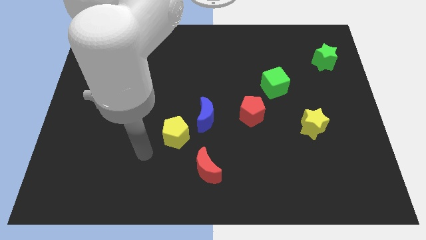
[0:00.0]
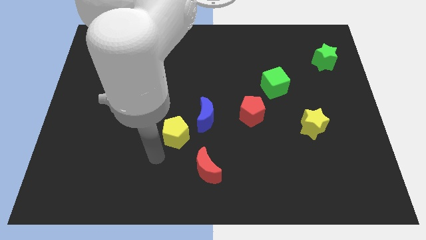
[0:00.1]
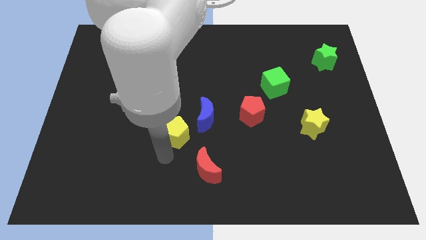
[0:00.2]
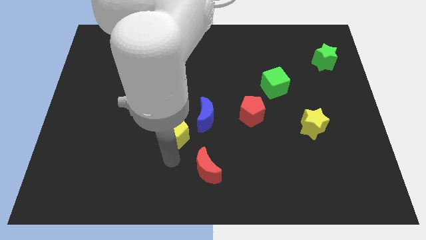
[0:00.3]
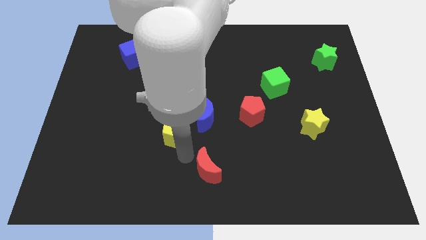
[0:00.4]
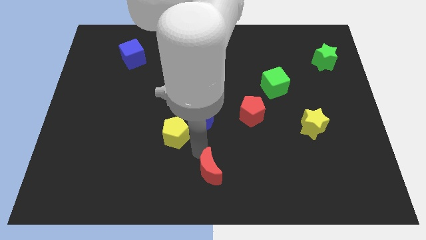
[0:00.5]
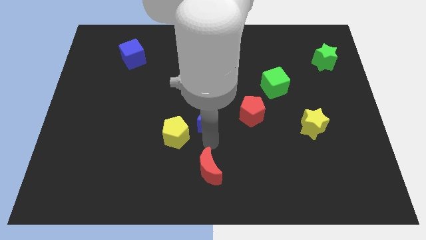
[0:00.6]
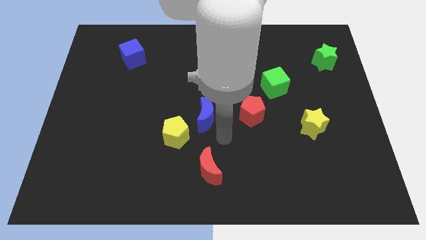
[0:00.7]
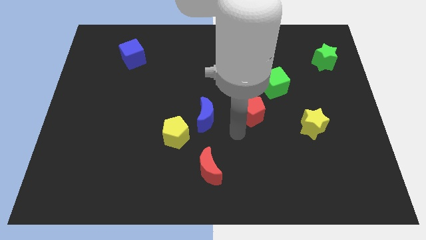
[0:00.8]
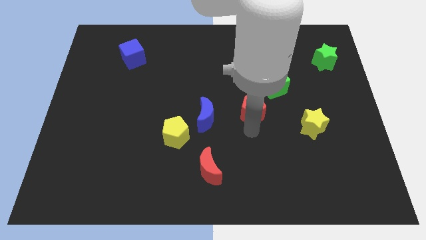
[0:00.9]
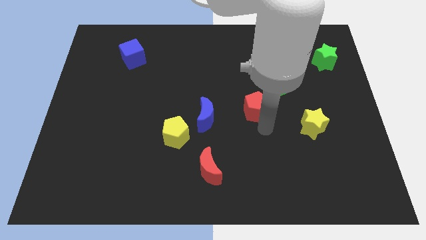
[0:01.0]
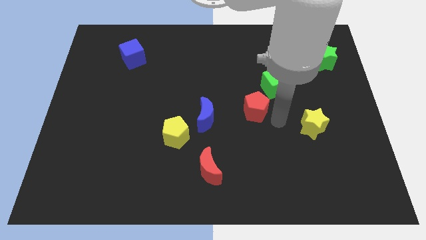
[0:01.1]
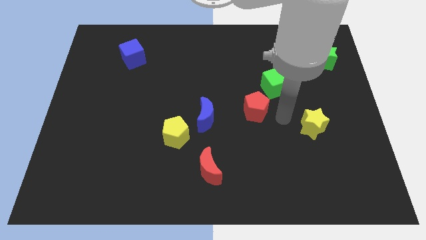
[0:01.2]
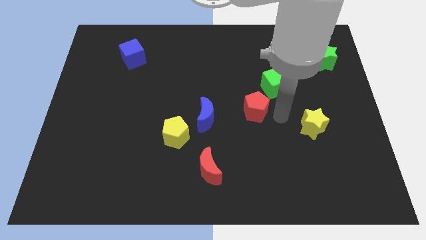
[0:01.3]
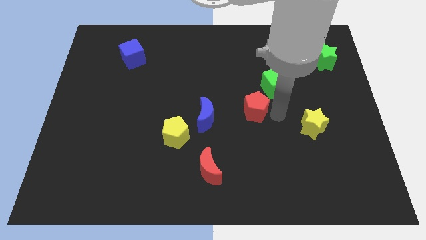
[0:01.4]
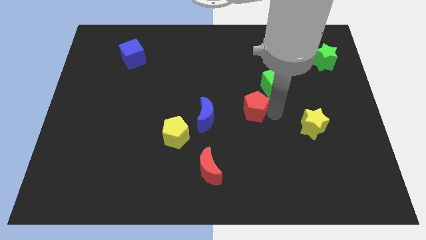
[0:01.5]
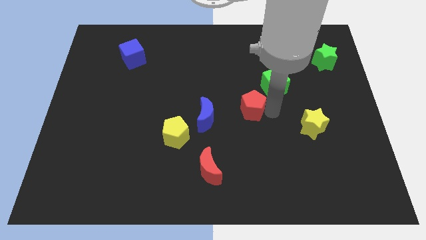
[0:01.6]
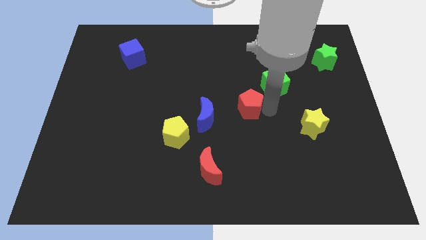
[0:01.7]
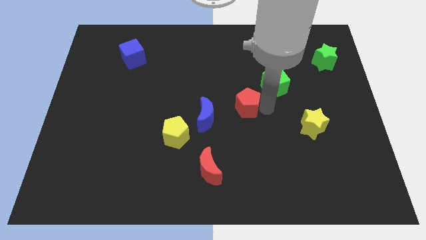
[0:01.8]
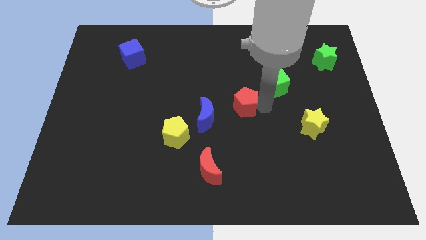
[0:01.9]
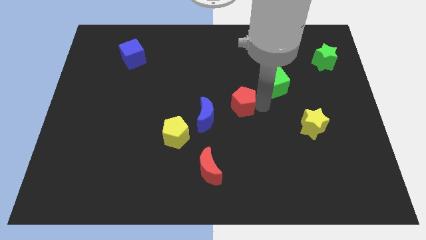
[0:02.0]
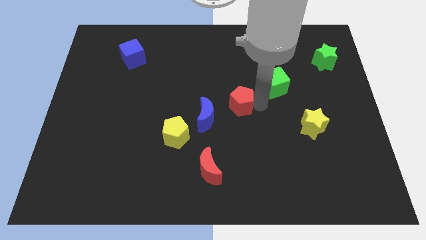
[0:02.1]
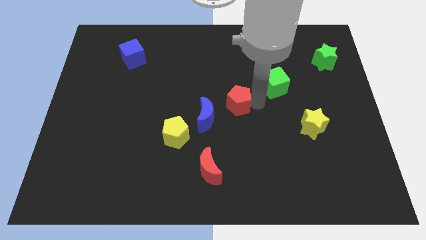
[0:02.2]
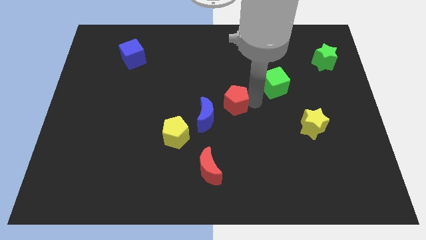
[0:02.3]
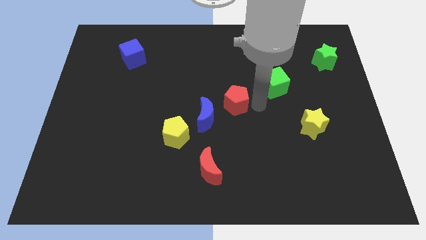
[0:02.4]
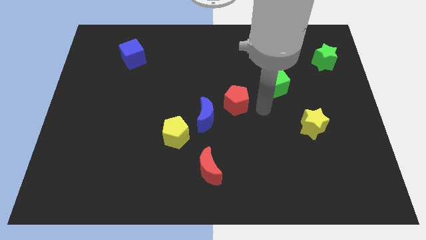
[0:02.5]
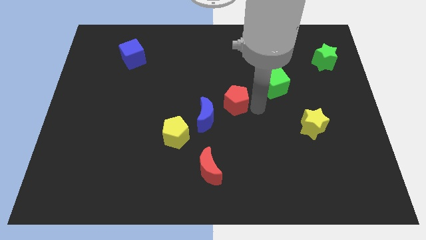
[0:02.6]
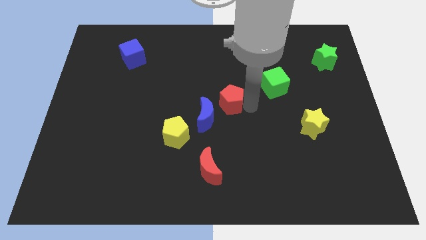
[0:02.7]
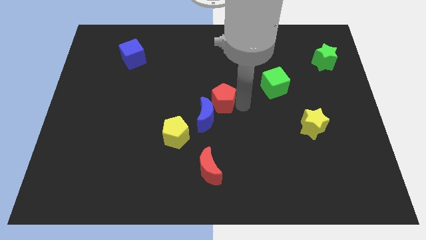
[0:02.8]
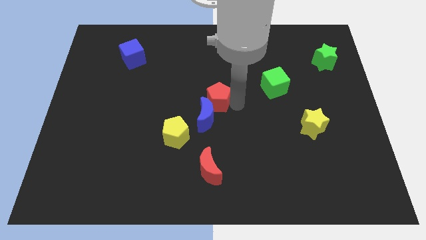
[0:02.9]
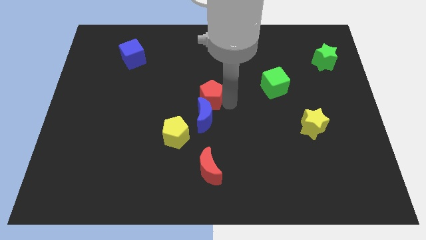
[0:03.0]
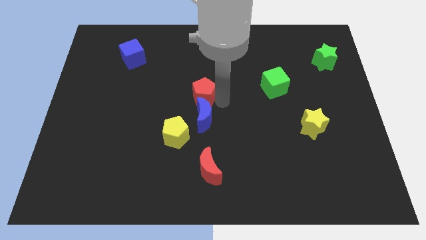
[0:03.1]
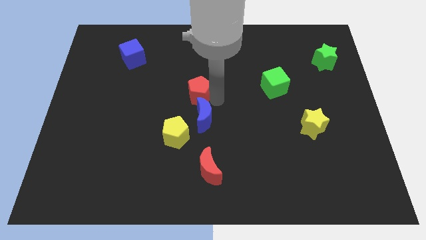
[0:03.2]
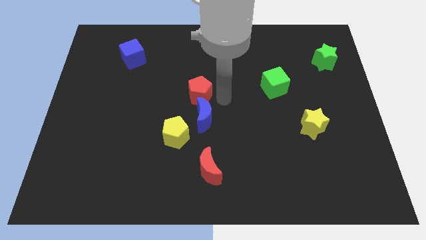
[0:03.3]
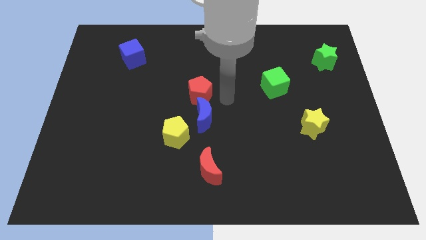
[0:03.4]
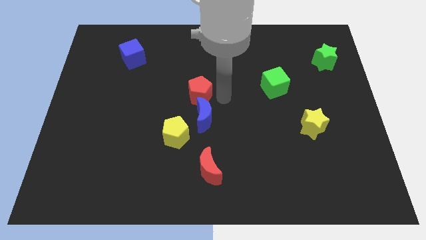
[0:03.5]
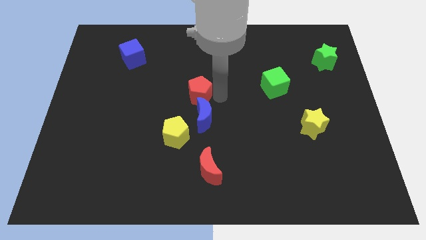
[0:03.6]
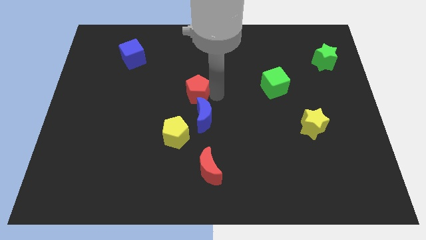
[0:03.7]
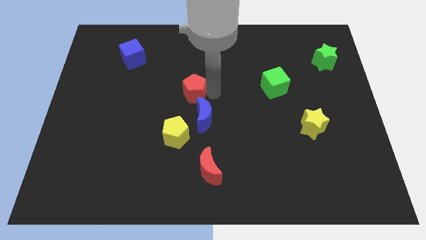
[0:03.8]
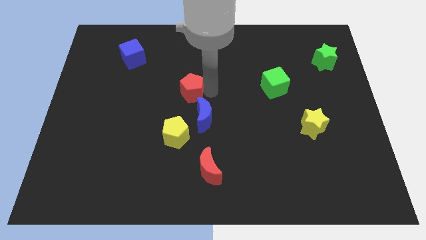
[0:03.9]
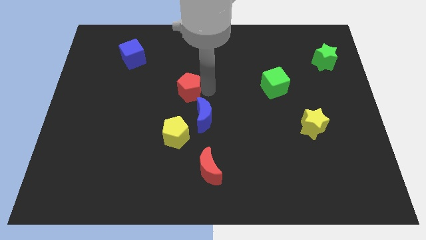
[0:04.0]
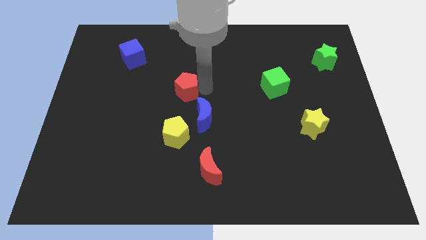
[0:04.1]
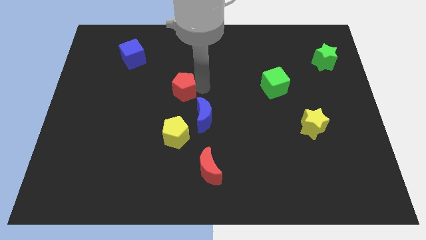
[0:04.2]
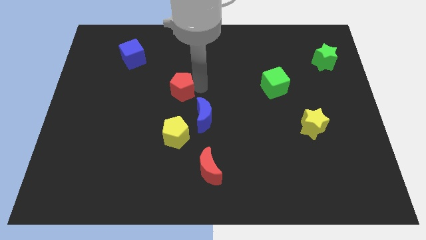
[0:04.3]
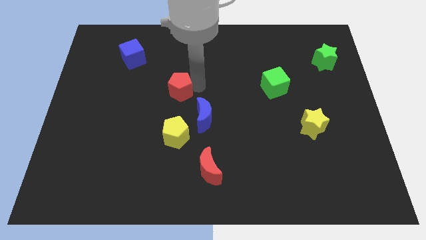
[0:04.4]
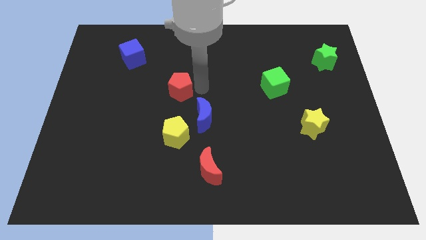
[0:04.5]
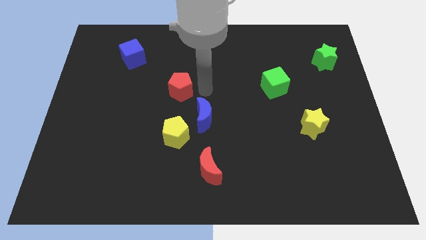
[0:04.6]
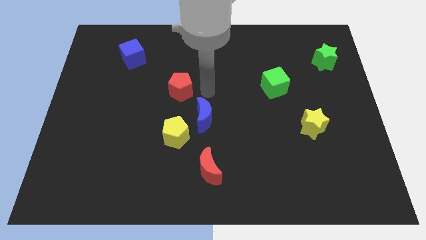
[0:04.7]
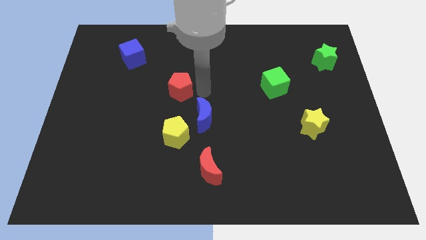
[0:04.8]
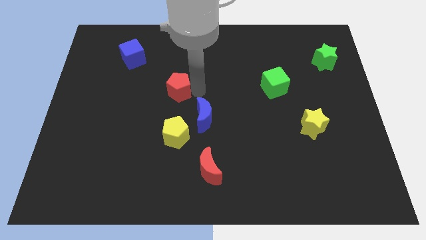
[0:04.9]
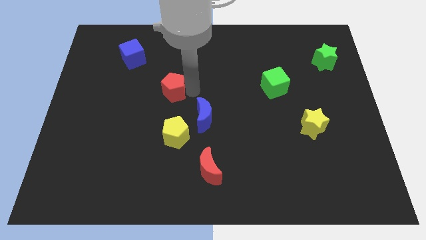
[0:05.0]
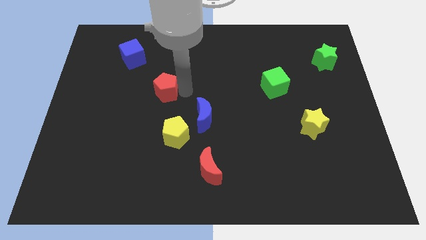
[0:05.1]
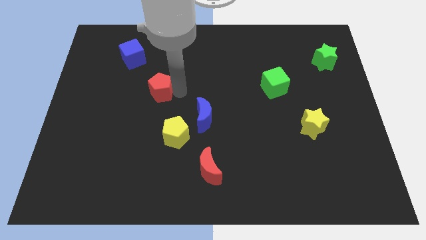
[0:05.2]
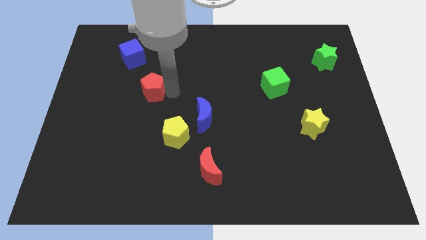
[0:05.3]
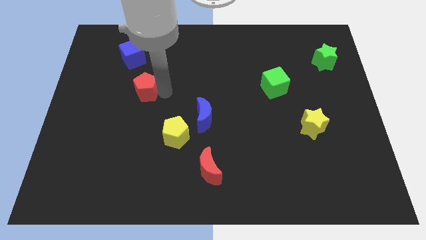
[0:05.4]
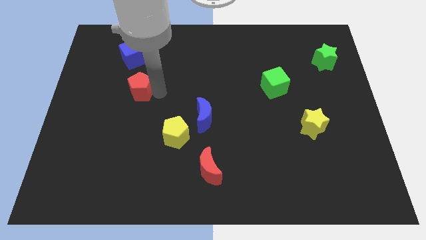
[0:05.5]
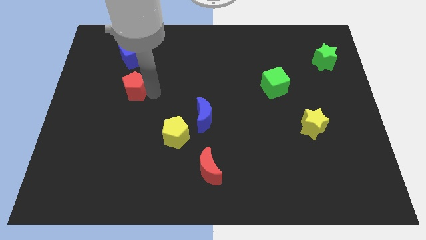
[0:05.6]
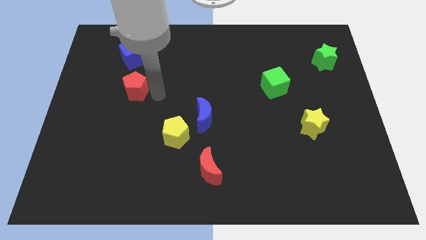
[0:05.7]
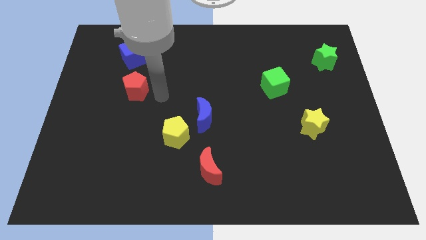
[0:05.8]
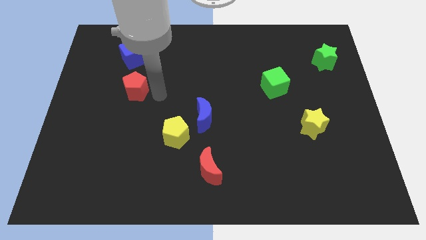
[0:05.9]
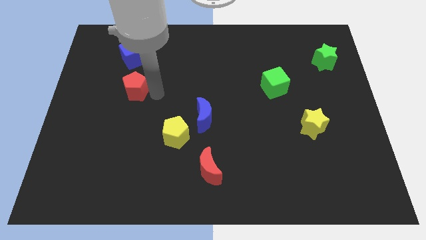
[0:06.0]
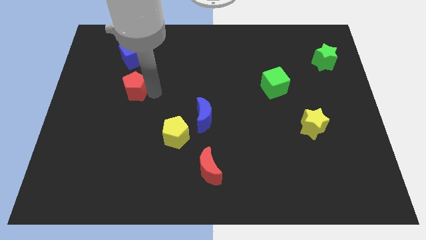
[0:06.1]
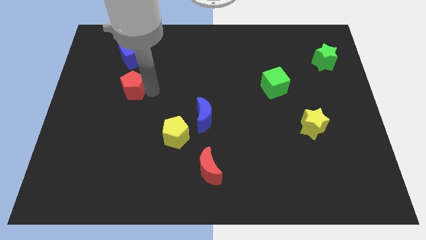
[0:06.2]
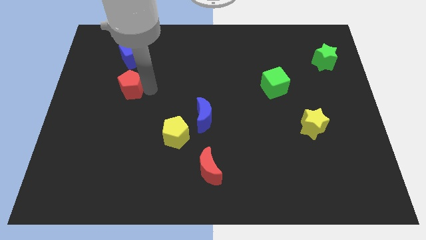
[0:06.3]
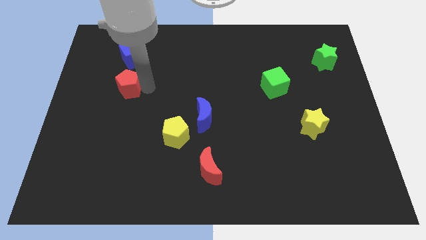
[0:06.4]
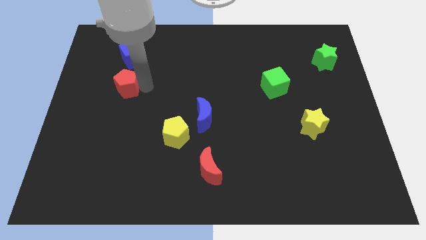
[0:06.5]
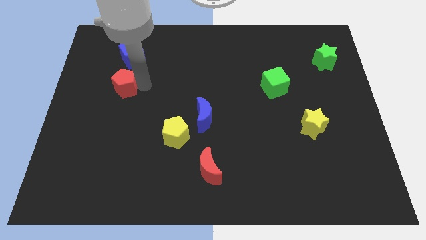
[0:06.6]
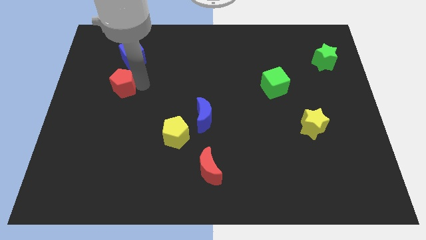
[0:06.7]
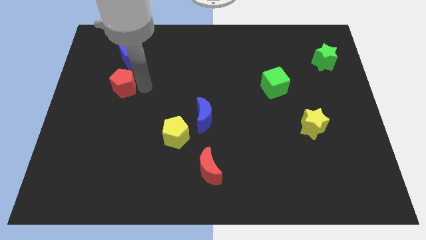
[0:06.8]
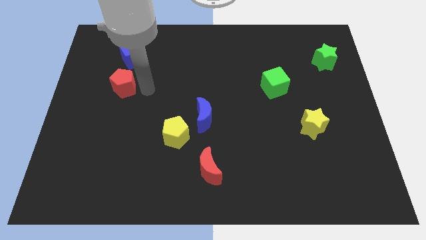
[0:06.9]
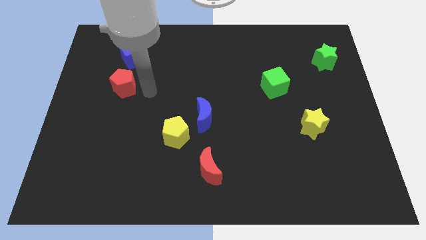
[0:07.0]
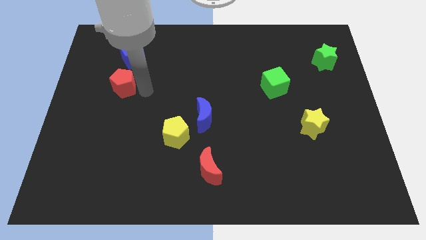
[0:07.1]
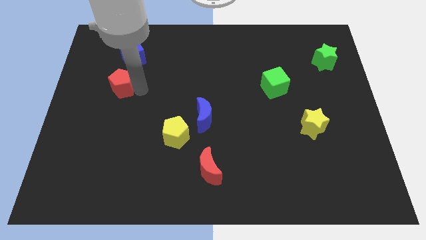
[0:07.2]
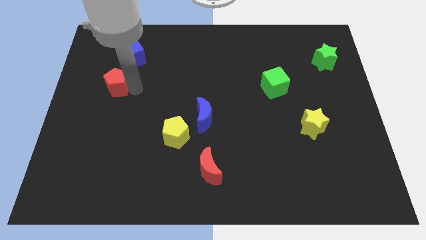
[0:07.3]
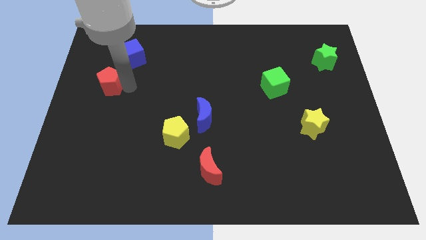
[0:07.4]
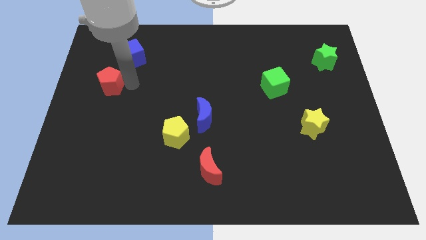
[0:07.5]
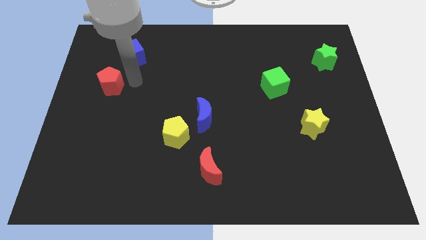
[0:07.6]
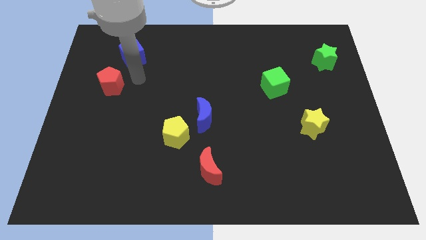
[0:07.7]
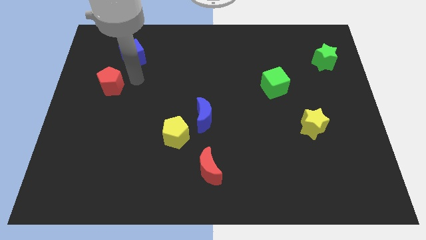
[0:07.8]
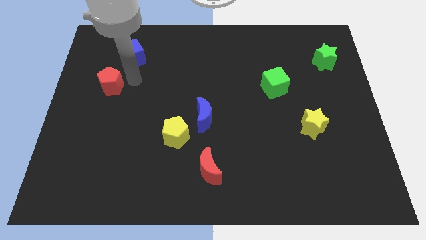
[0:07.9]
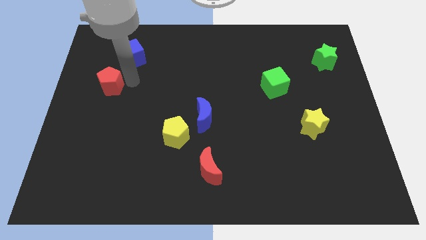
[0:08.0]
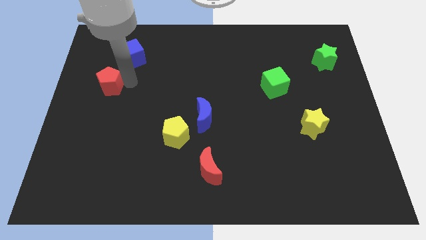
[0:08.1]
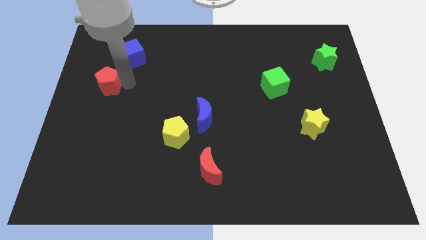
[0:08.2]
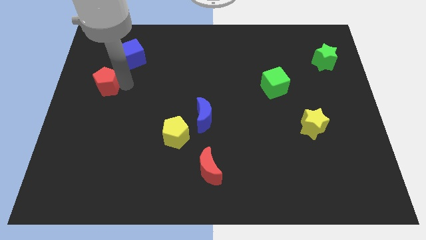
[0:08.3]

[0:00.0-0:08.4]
move the red pentagon to the left side
